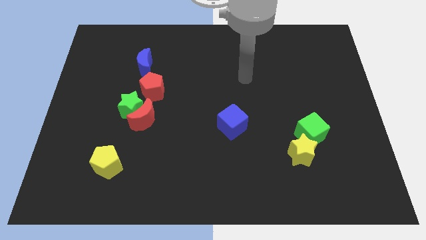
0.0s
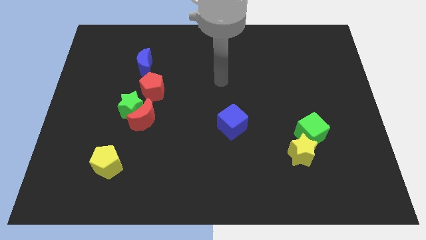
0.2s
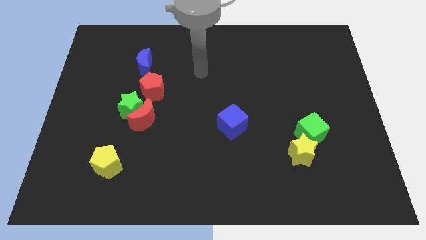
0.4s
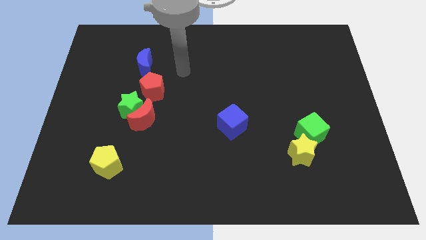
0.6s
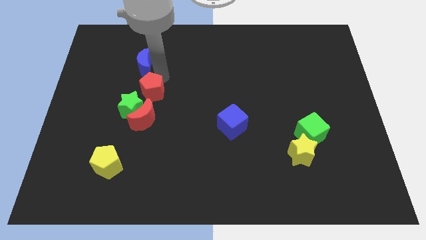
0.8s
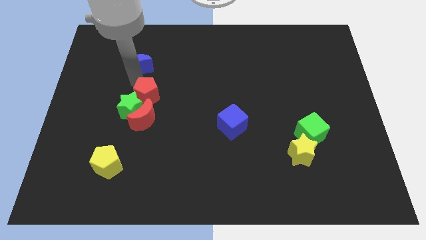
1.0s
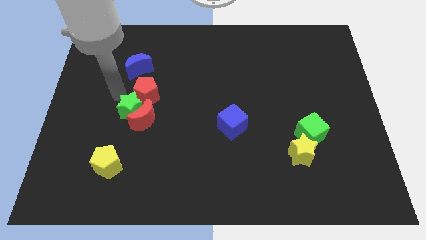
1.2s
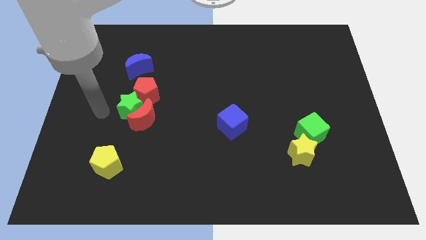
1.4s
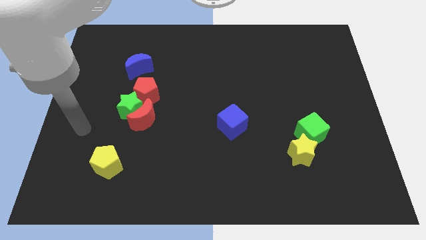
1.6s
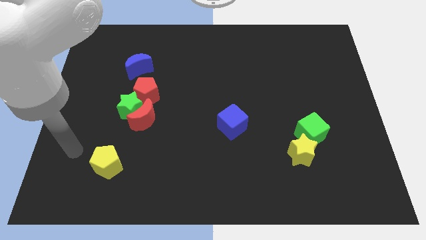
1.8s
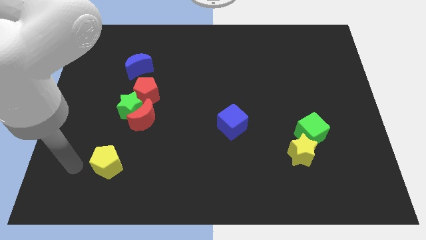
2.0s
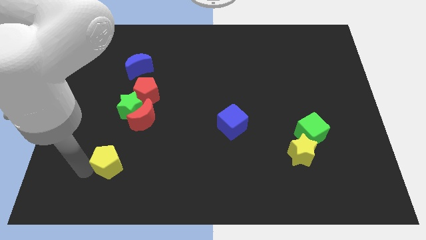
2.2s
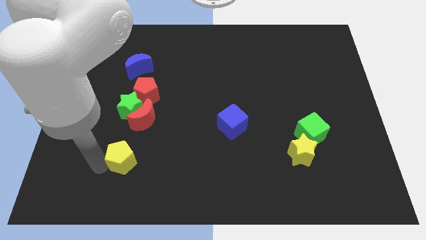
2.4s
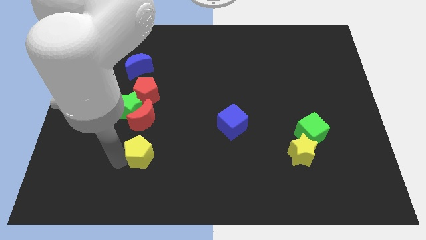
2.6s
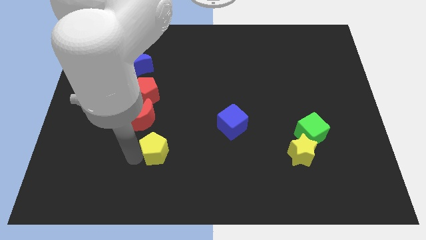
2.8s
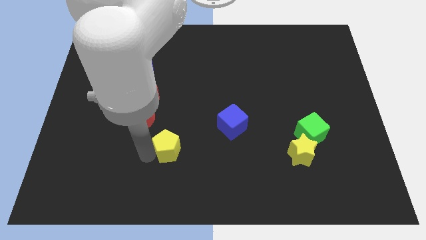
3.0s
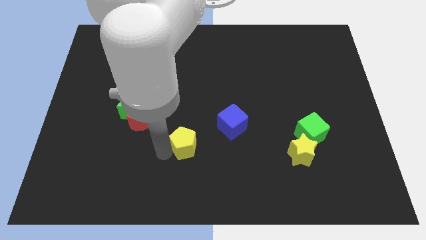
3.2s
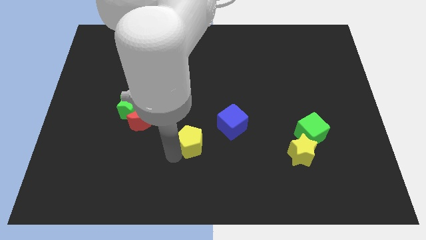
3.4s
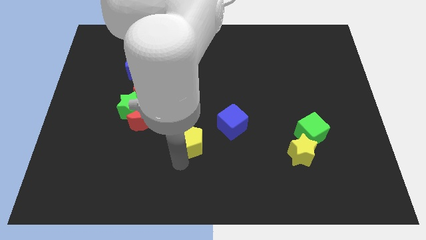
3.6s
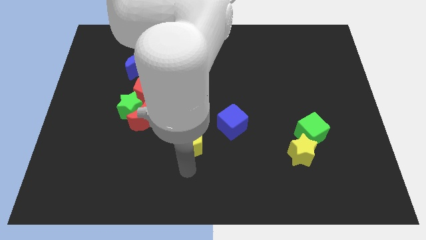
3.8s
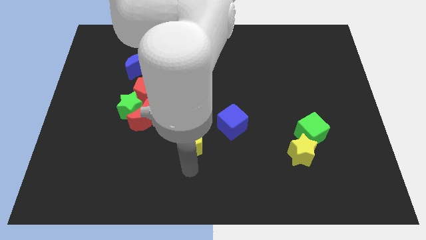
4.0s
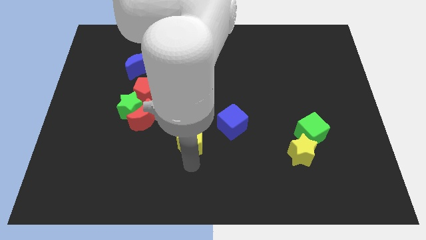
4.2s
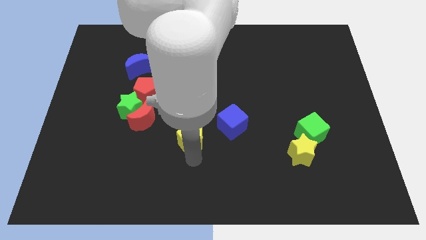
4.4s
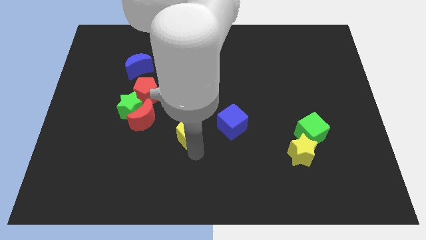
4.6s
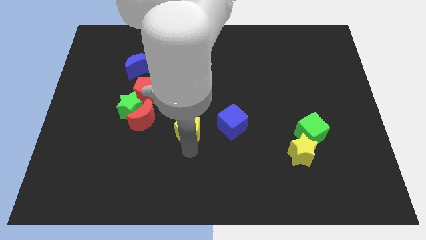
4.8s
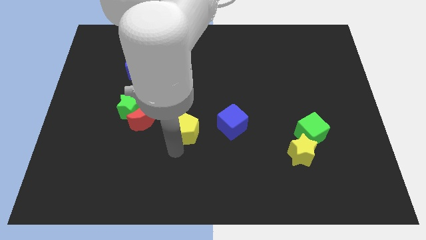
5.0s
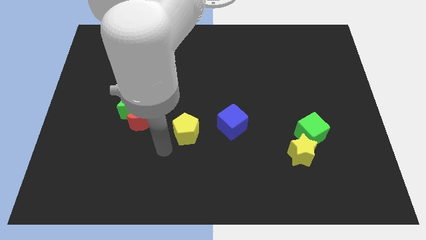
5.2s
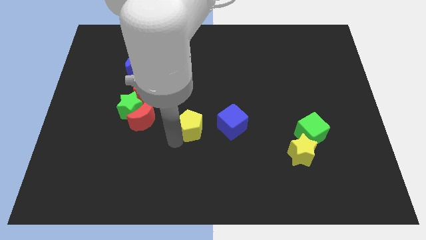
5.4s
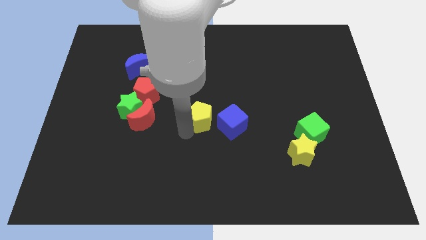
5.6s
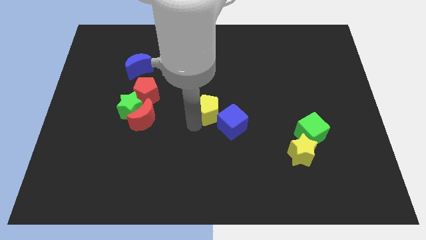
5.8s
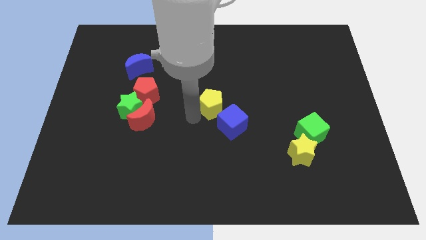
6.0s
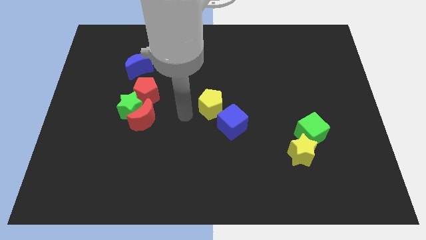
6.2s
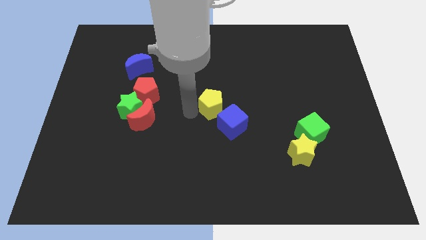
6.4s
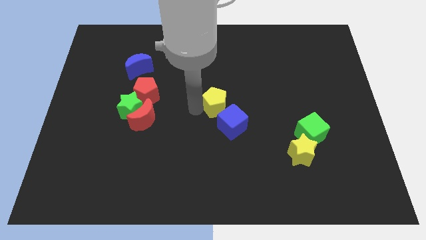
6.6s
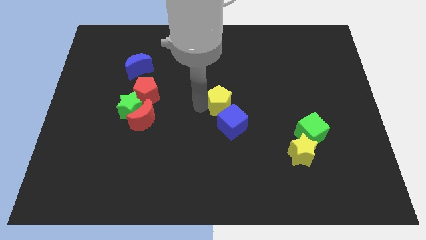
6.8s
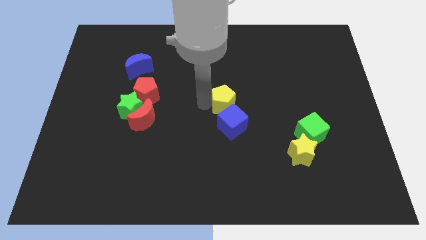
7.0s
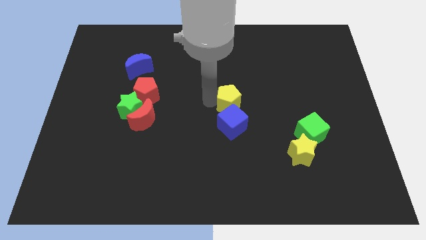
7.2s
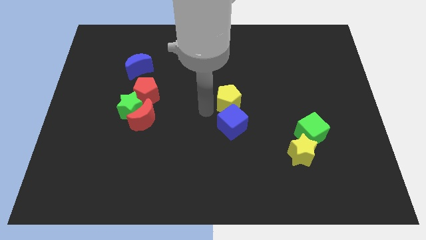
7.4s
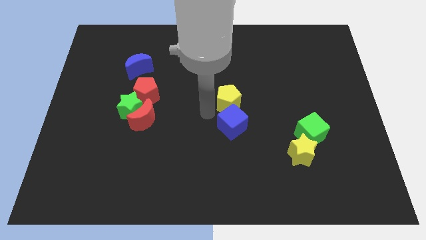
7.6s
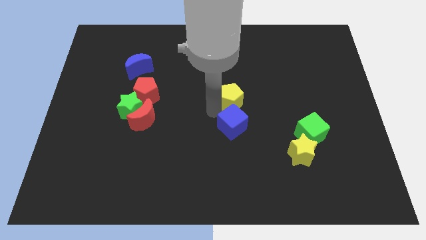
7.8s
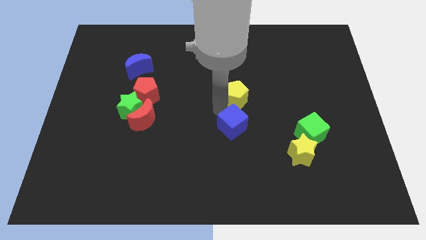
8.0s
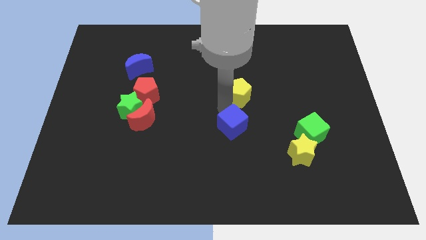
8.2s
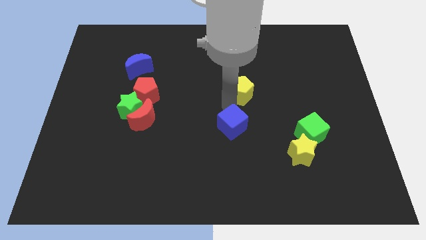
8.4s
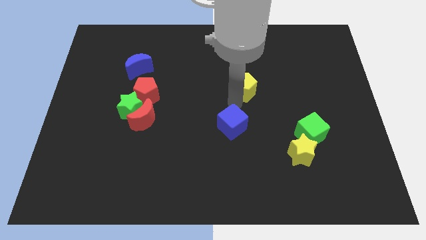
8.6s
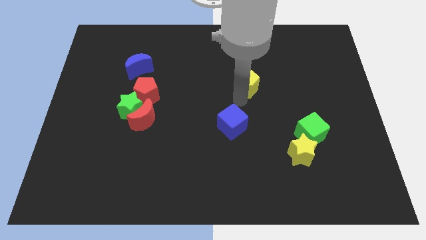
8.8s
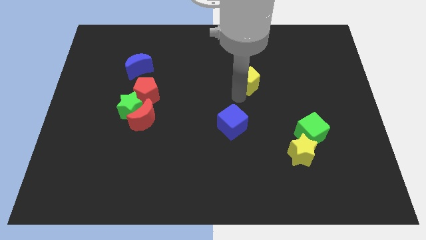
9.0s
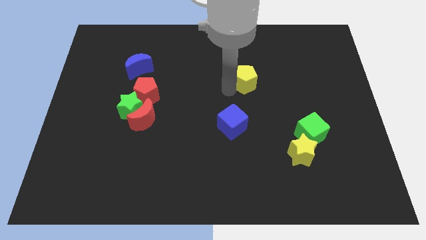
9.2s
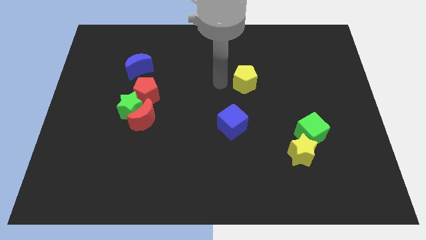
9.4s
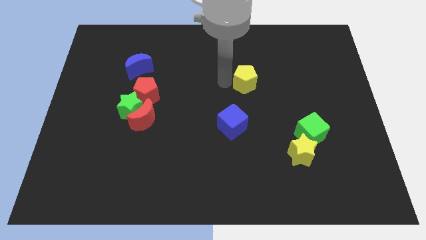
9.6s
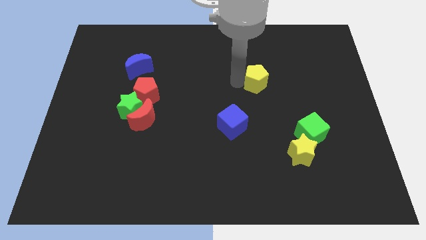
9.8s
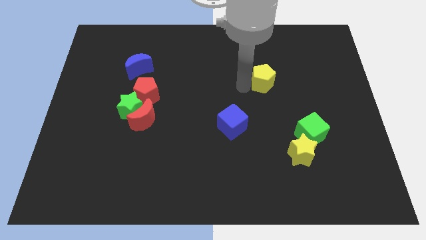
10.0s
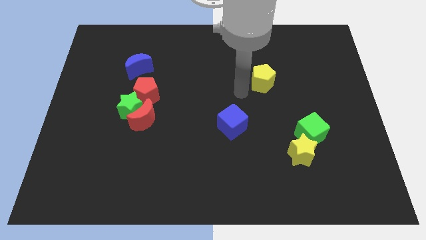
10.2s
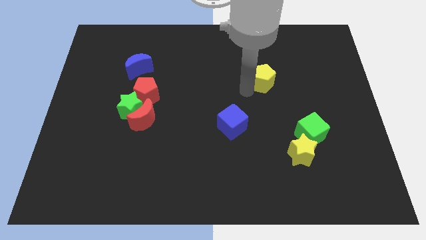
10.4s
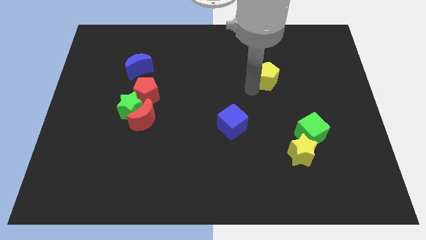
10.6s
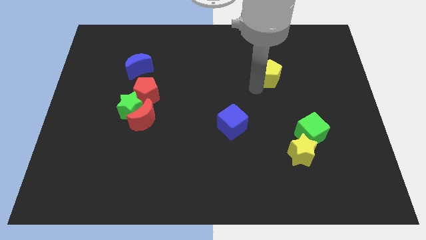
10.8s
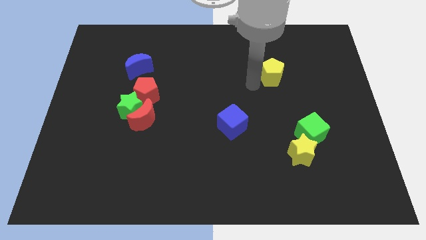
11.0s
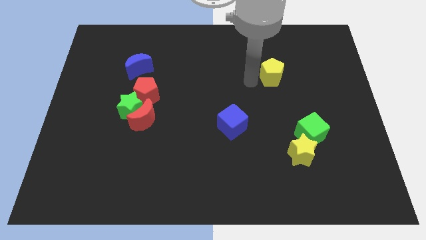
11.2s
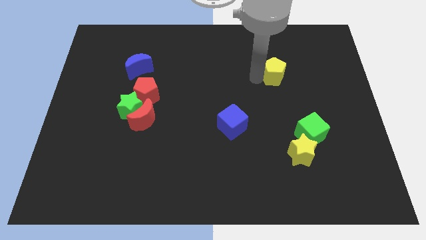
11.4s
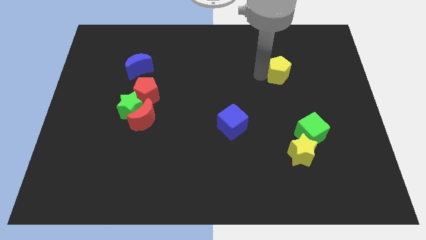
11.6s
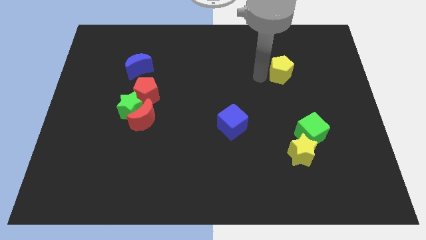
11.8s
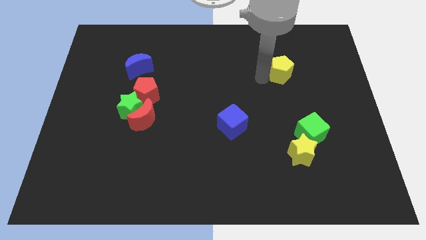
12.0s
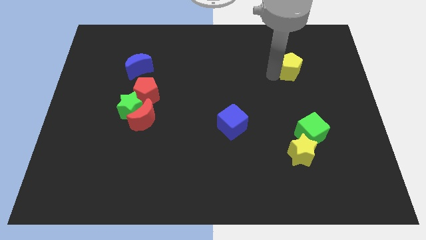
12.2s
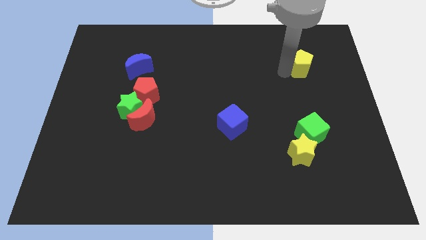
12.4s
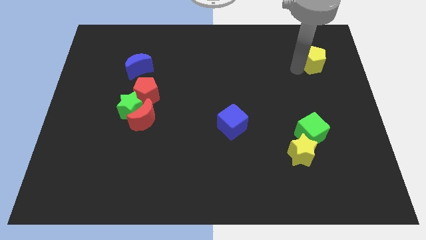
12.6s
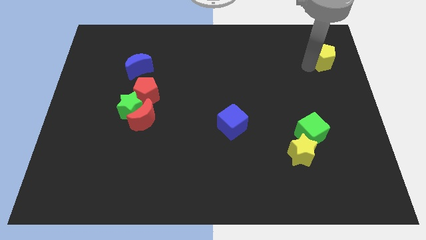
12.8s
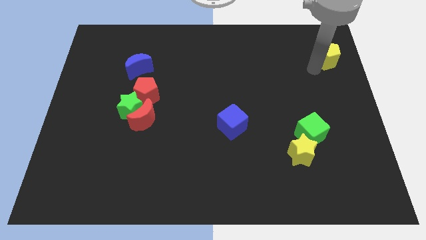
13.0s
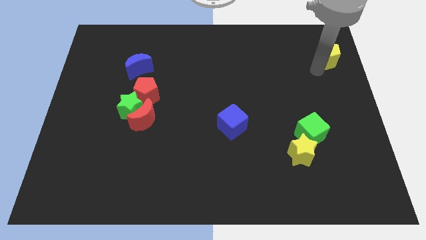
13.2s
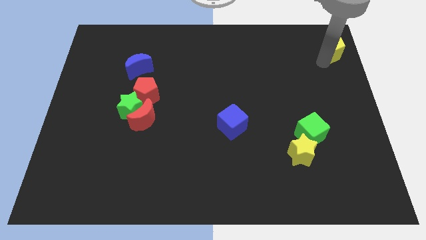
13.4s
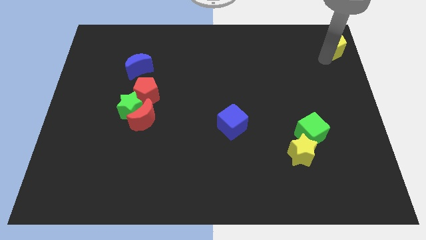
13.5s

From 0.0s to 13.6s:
slide the yellow pentagon to the upper right corner
